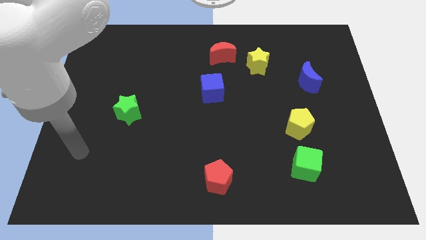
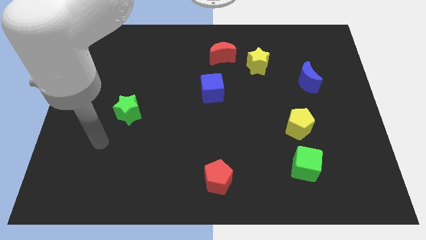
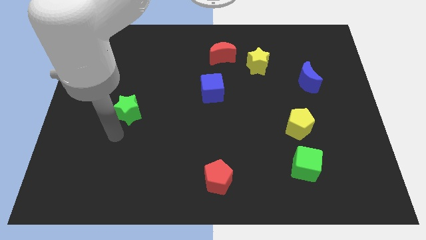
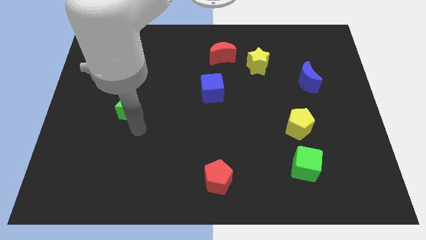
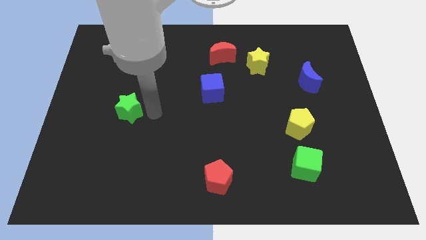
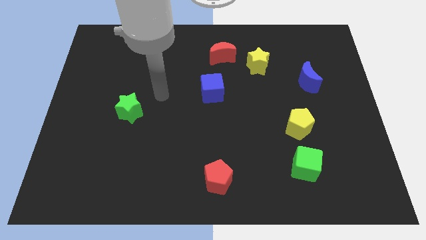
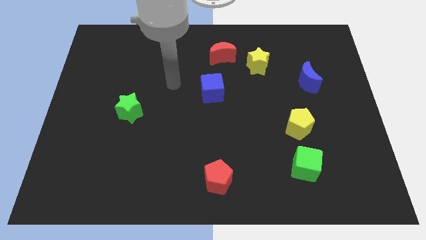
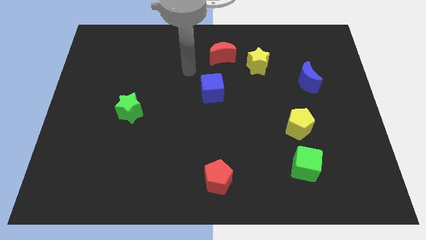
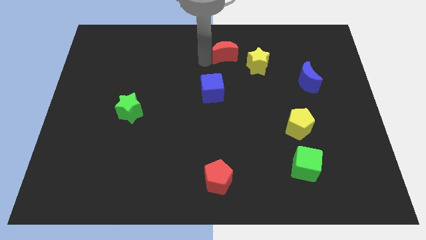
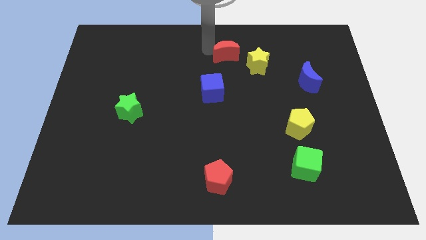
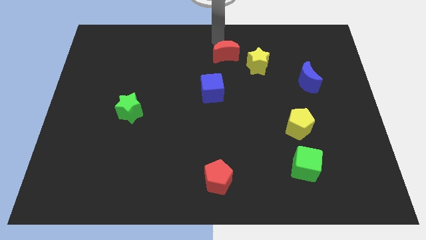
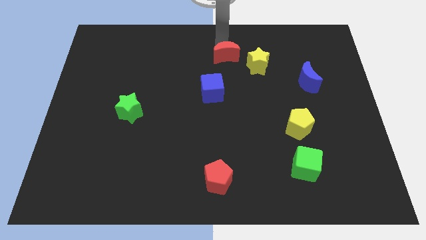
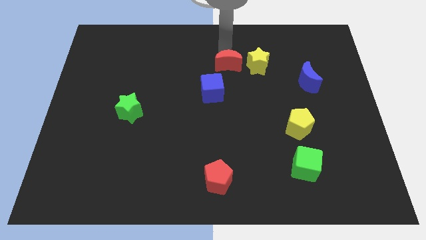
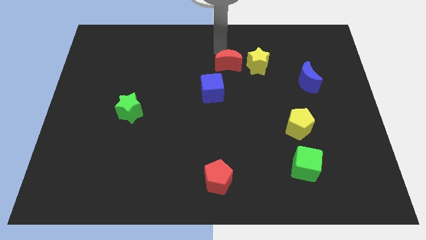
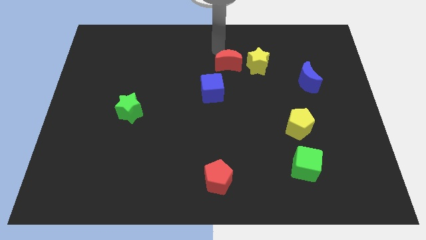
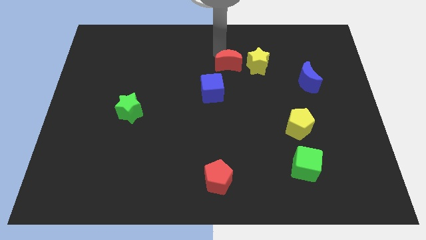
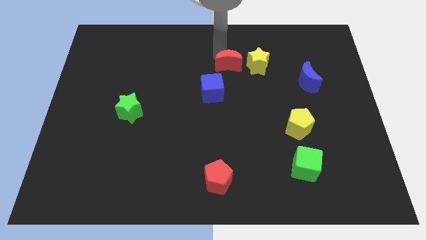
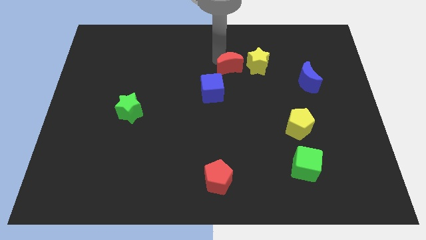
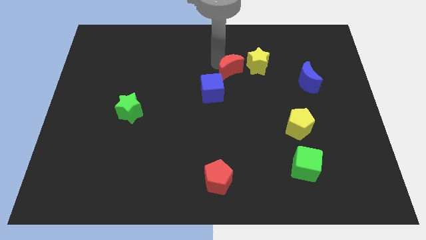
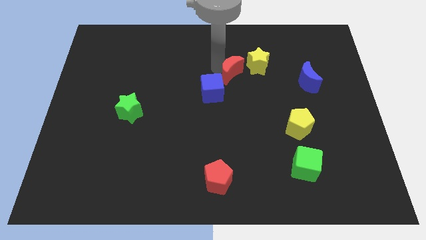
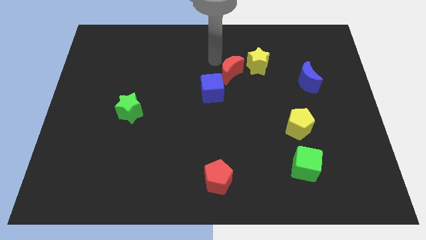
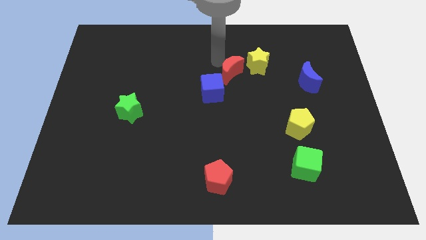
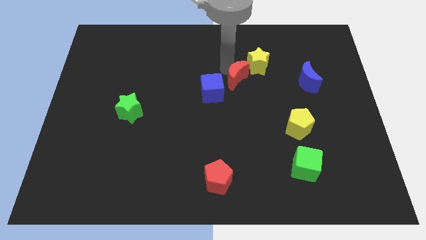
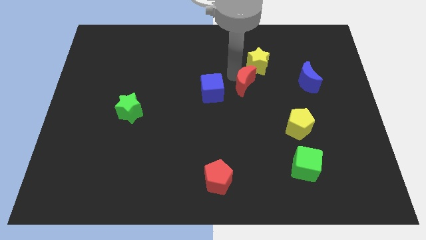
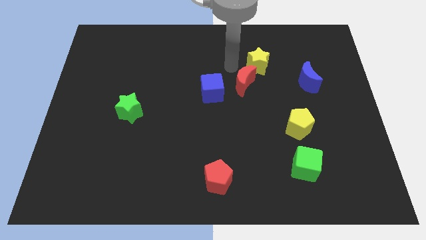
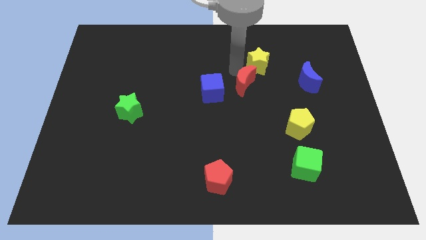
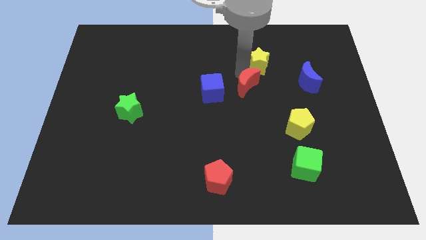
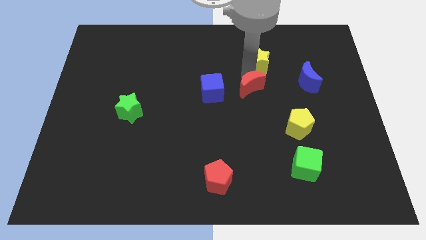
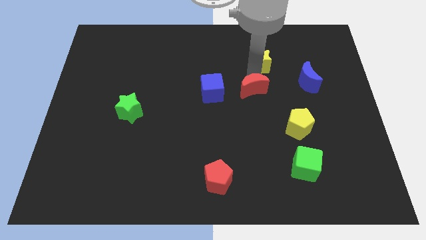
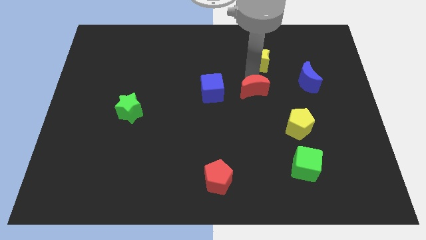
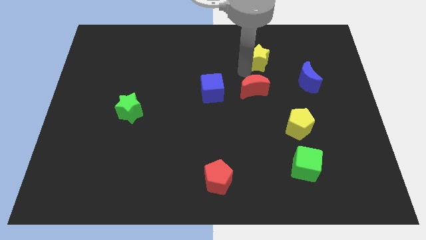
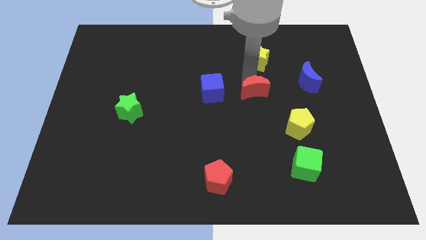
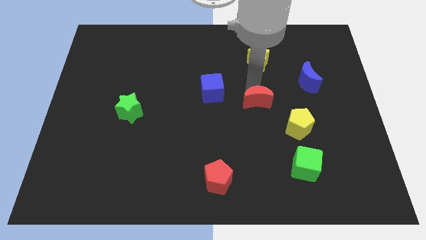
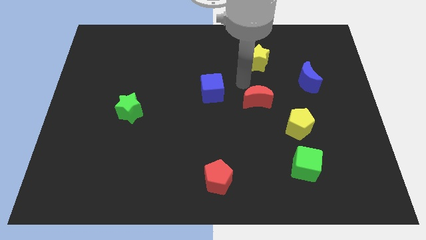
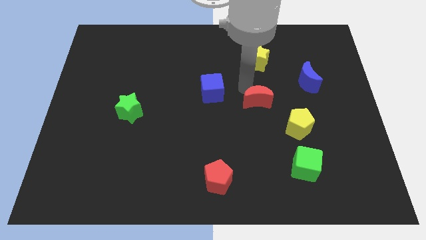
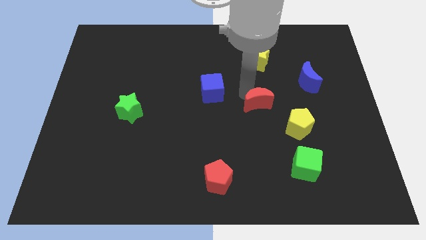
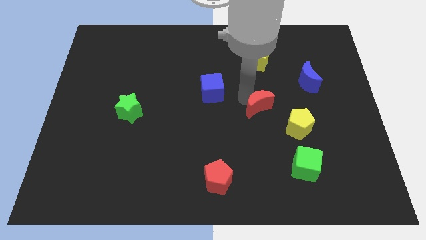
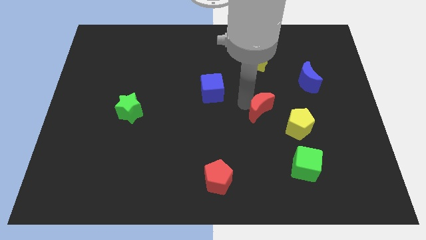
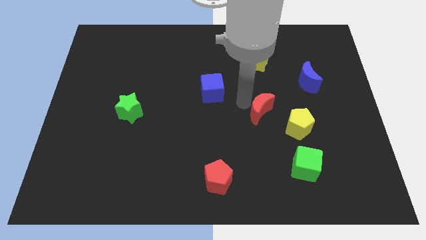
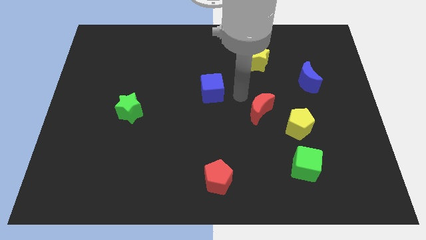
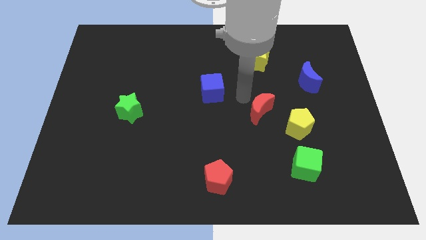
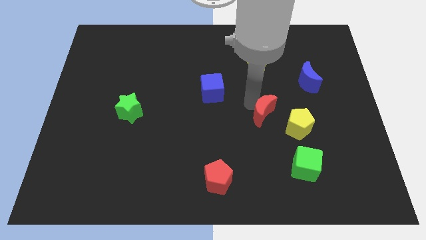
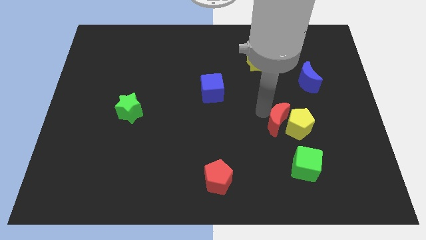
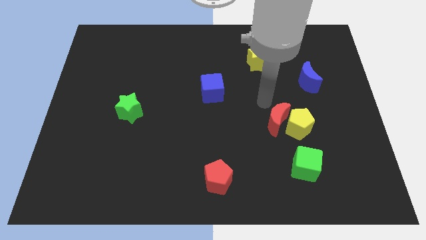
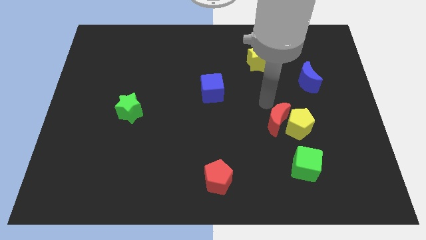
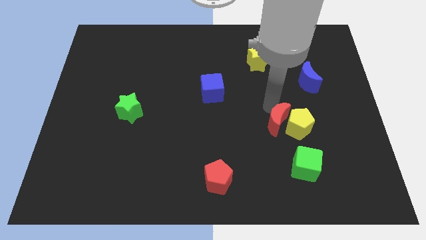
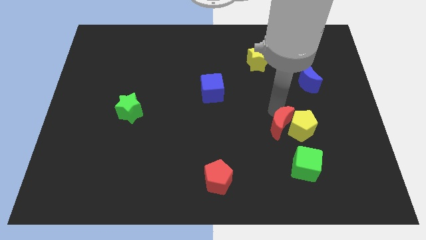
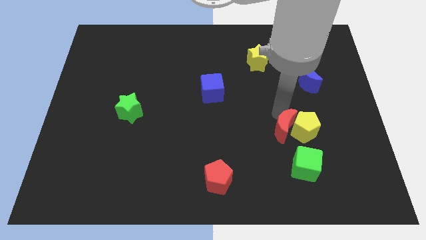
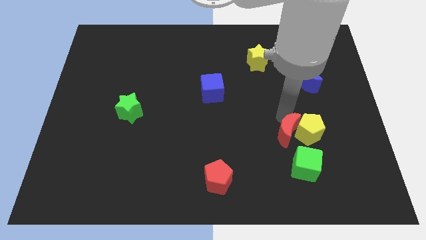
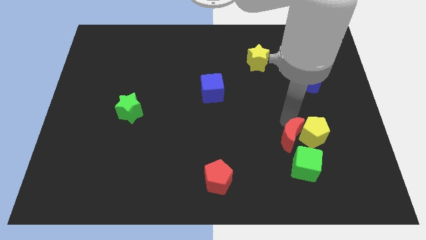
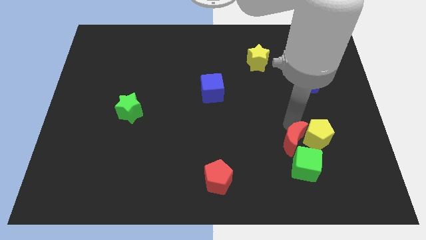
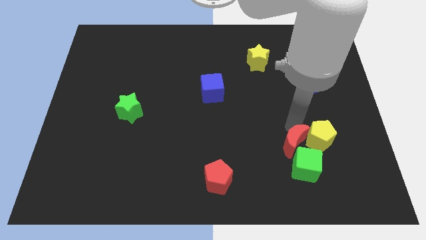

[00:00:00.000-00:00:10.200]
push the red moon close to the green cube

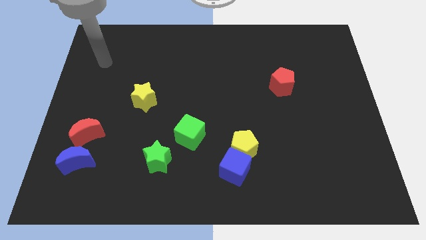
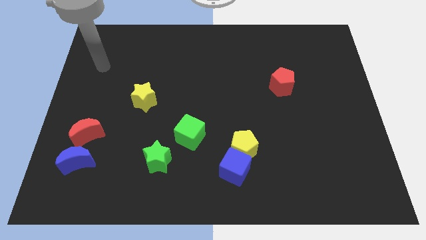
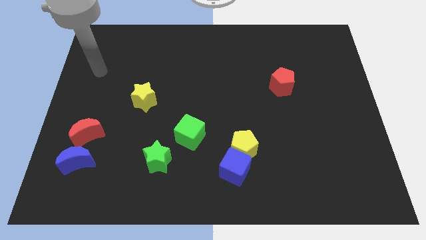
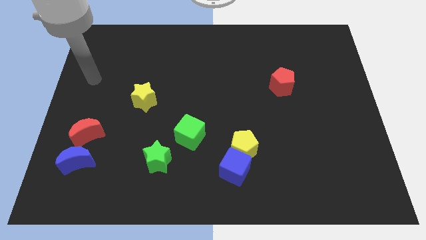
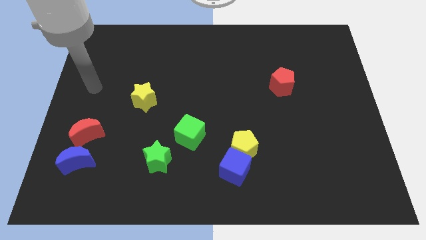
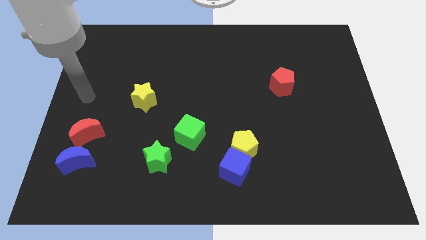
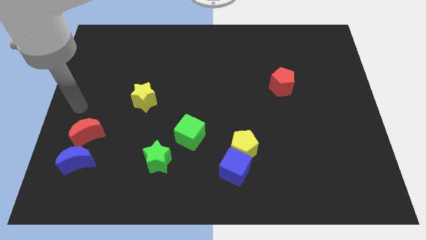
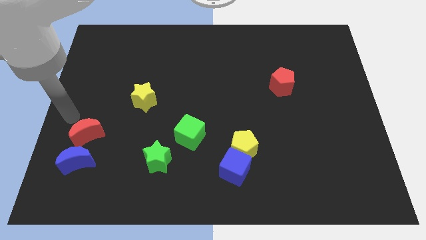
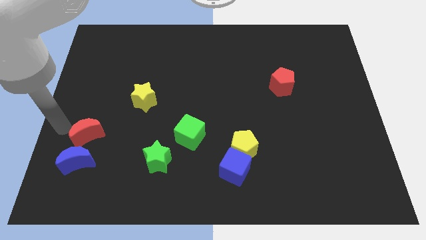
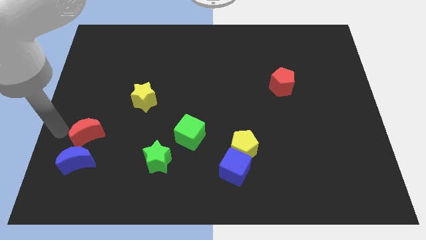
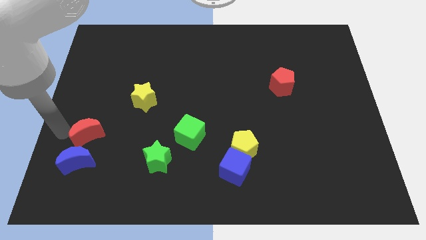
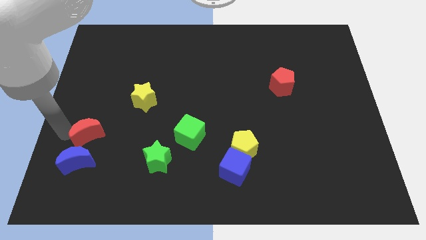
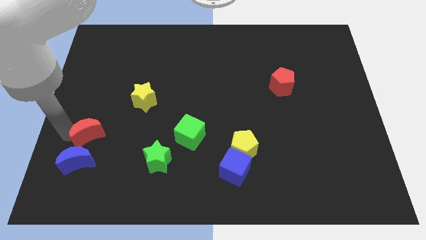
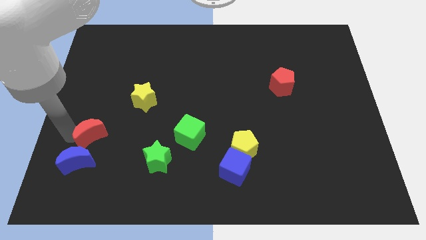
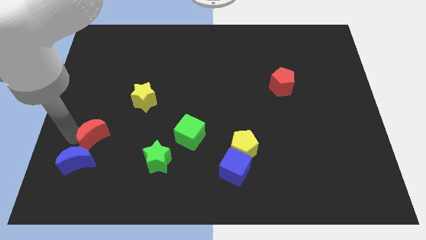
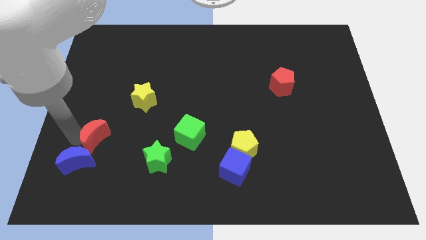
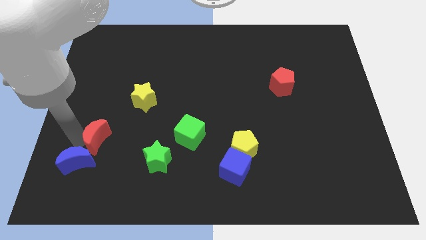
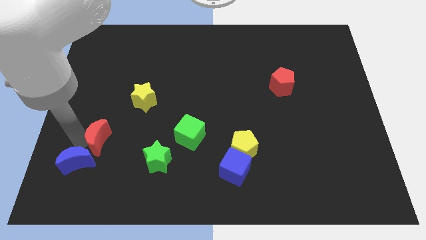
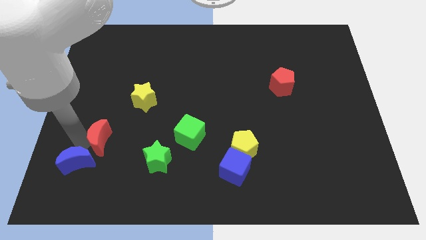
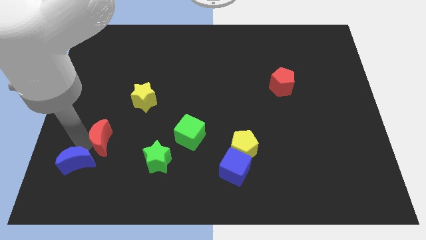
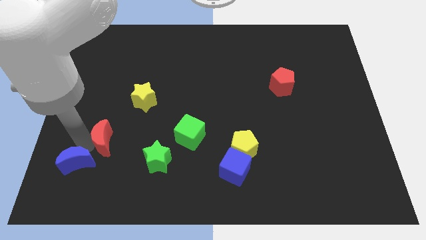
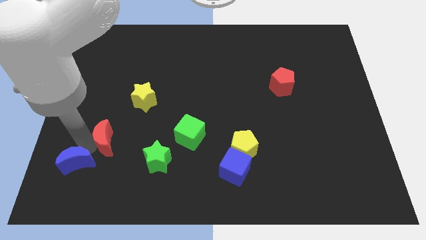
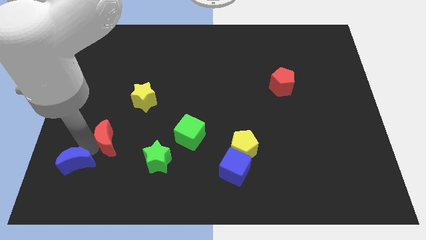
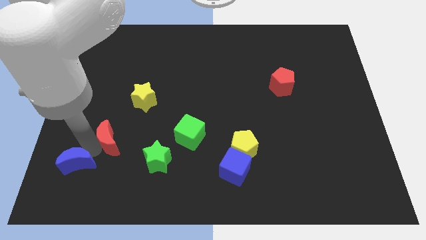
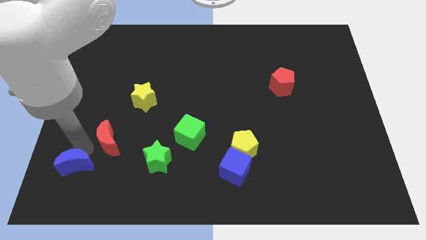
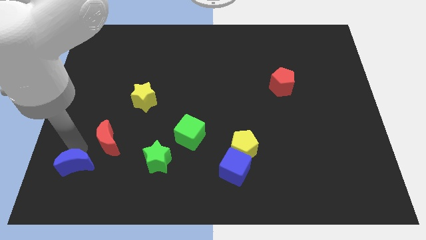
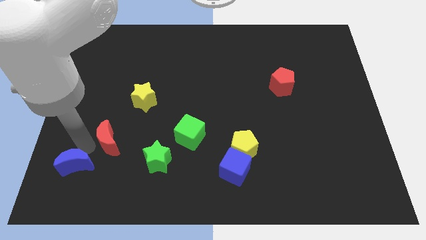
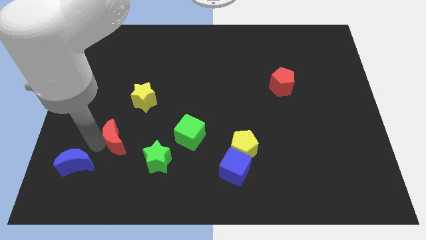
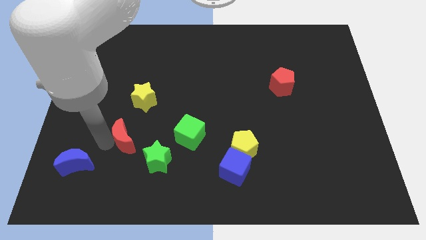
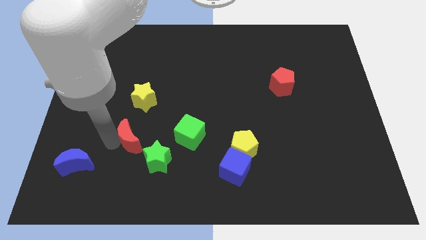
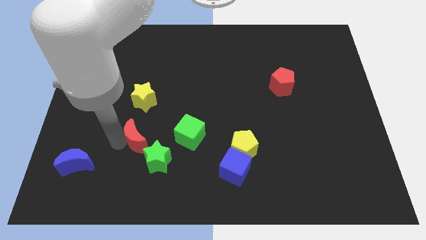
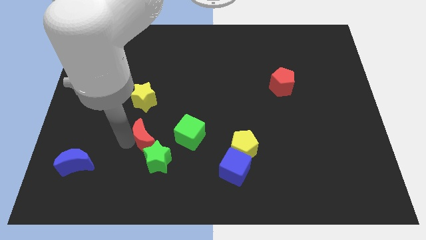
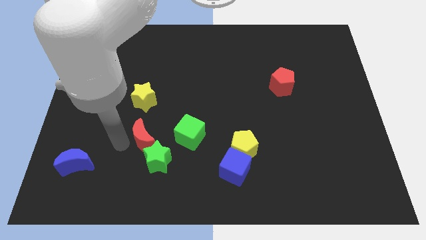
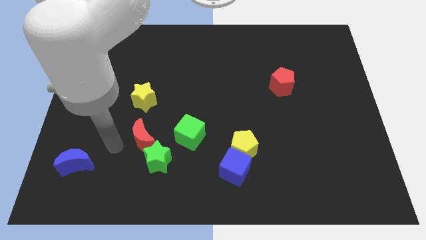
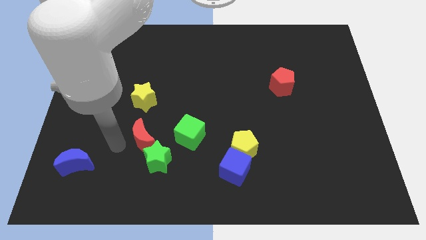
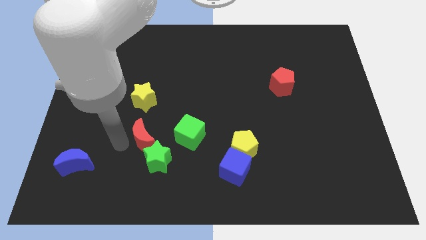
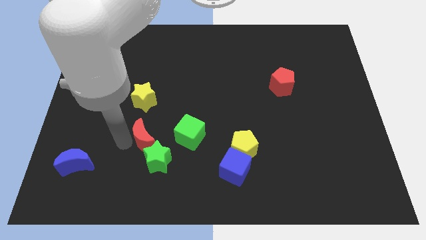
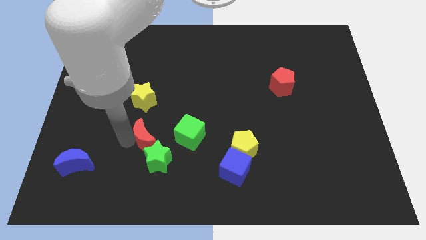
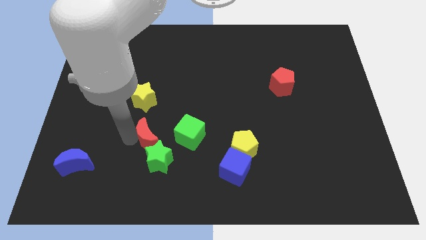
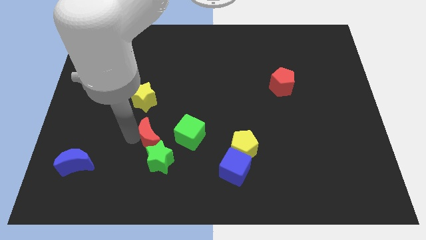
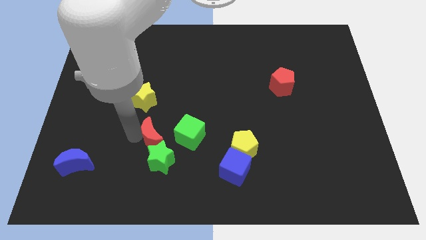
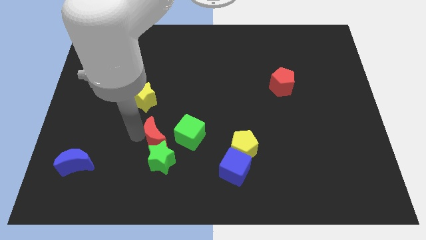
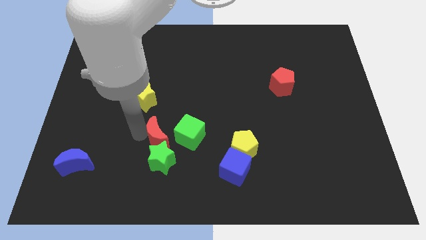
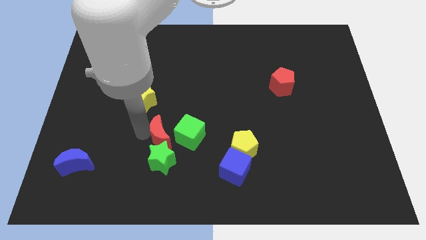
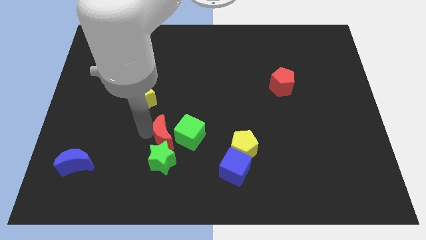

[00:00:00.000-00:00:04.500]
put the red moon towards the green cube
